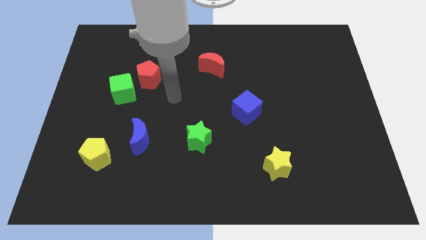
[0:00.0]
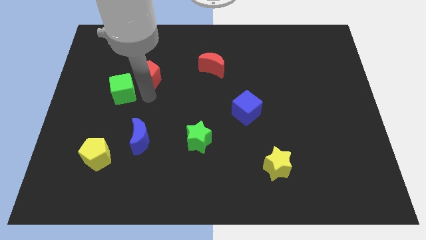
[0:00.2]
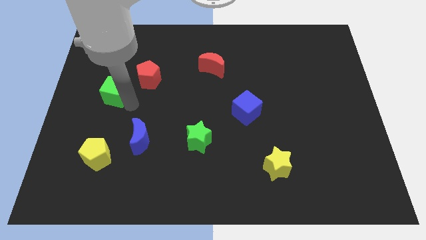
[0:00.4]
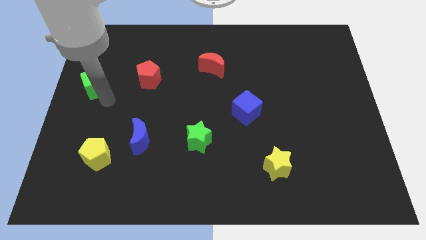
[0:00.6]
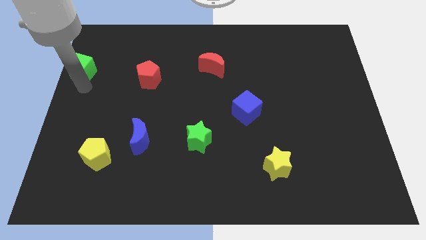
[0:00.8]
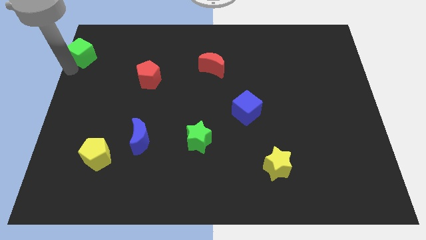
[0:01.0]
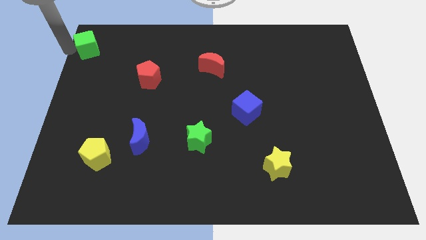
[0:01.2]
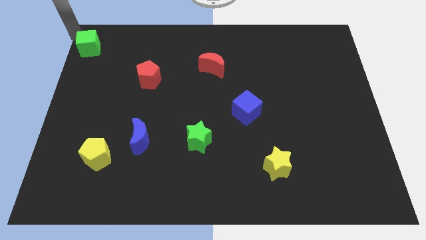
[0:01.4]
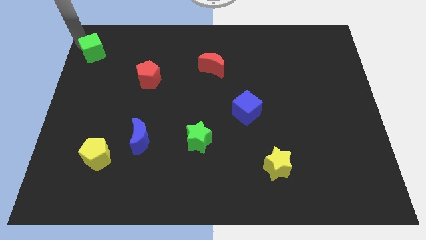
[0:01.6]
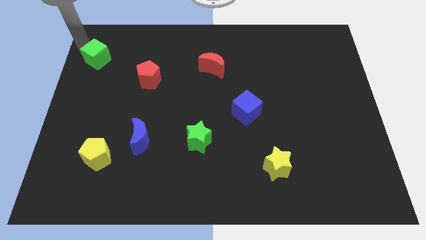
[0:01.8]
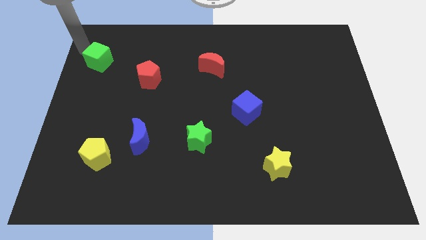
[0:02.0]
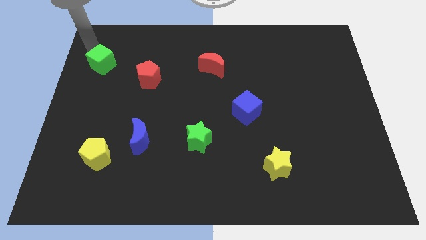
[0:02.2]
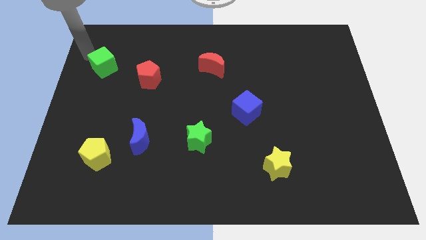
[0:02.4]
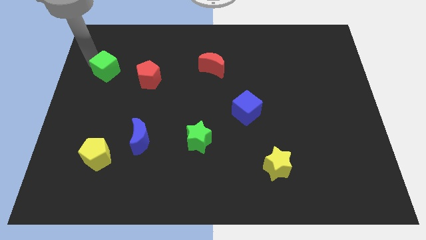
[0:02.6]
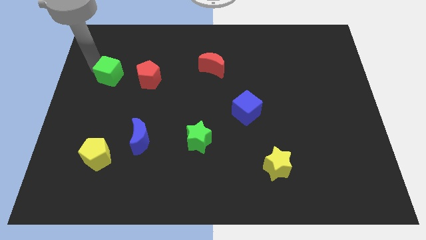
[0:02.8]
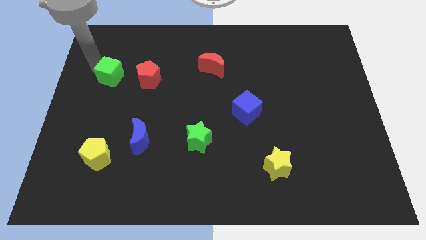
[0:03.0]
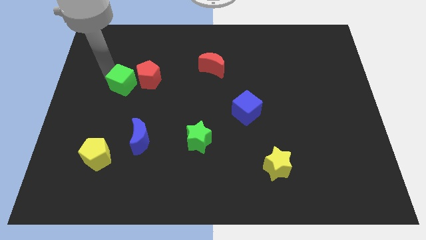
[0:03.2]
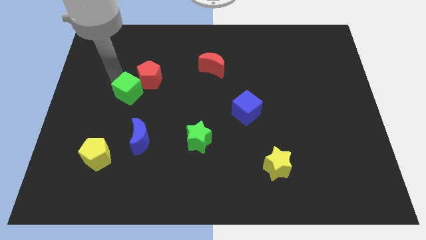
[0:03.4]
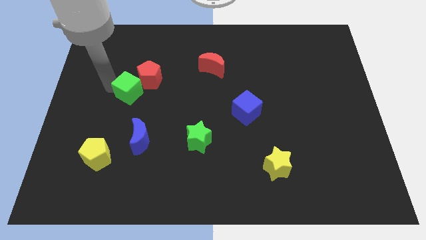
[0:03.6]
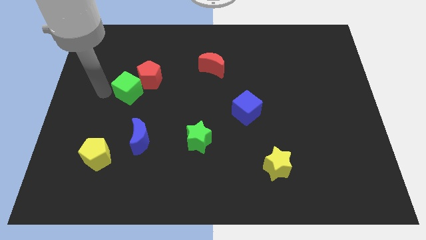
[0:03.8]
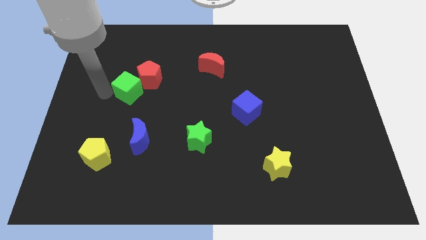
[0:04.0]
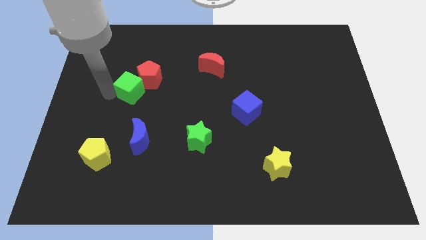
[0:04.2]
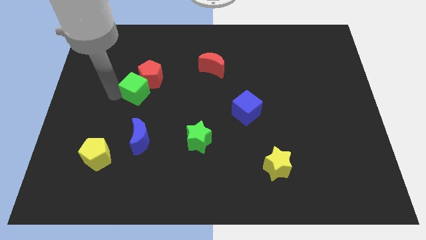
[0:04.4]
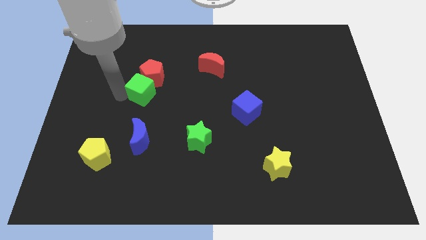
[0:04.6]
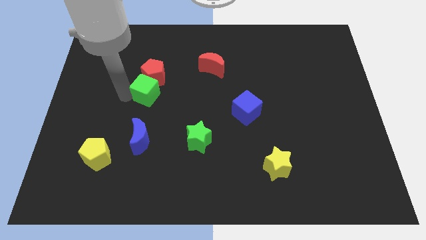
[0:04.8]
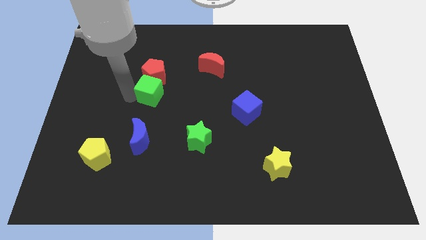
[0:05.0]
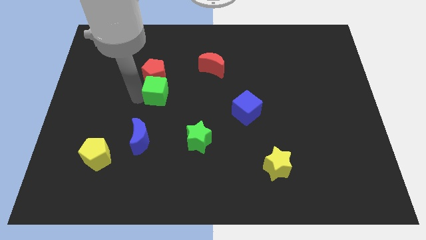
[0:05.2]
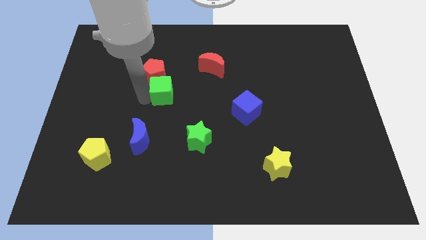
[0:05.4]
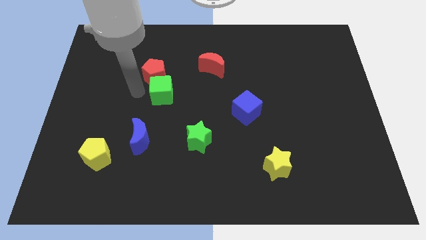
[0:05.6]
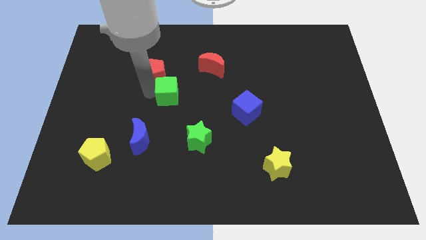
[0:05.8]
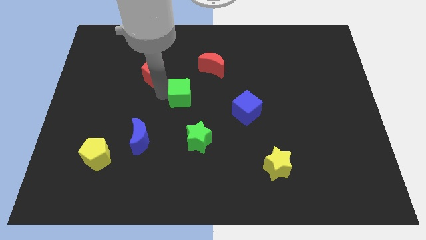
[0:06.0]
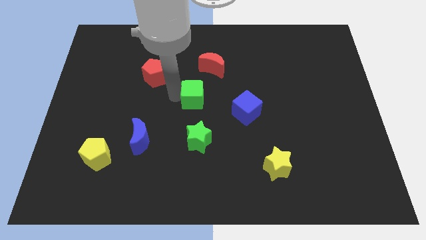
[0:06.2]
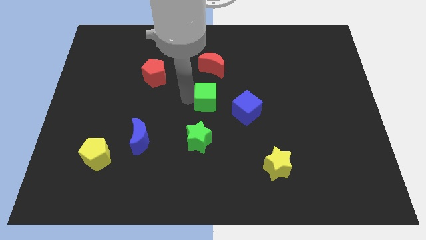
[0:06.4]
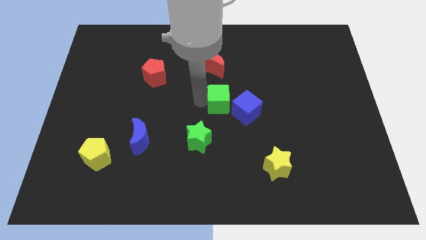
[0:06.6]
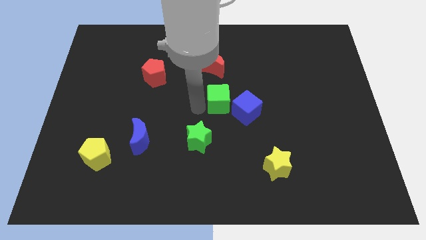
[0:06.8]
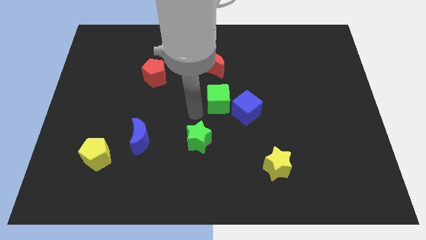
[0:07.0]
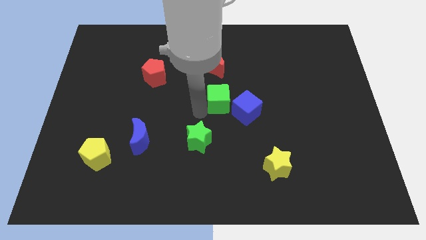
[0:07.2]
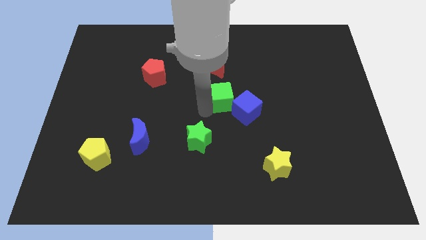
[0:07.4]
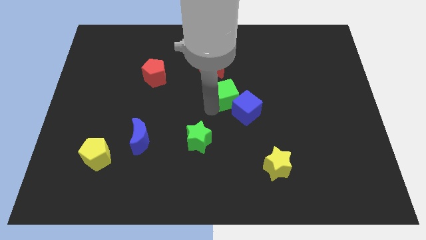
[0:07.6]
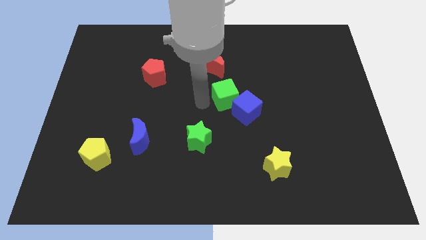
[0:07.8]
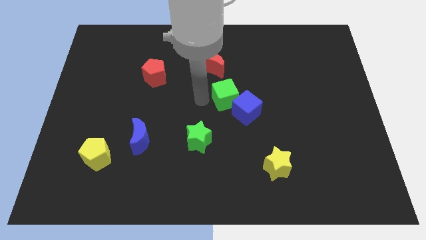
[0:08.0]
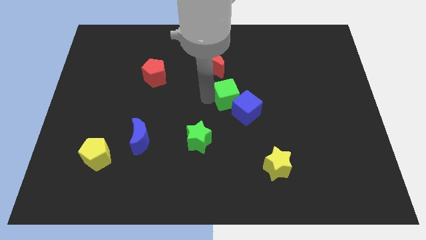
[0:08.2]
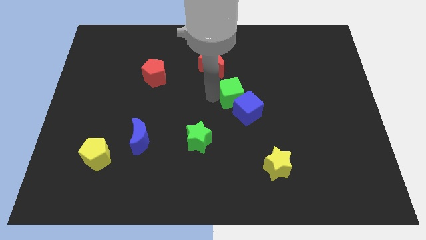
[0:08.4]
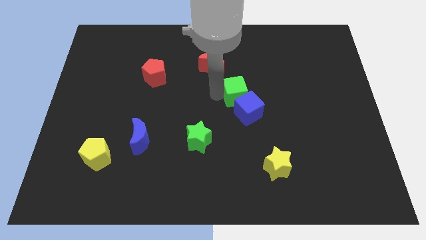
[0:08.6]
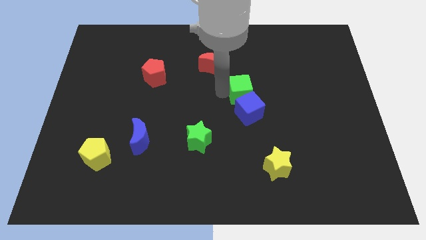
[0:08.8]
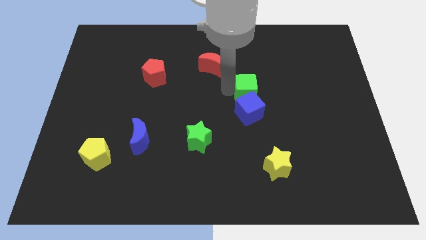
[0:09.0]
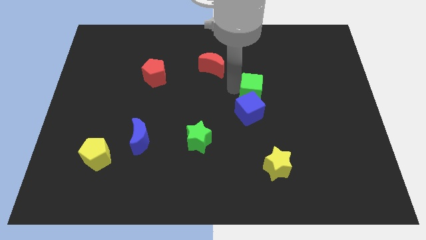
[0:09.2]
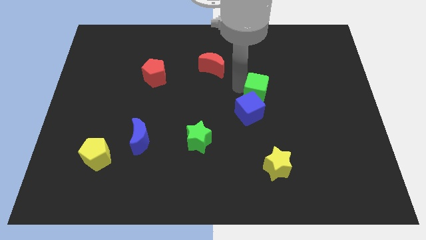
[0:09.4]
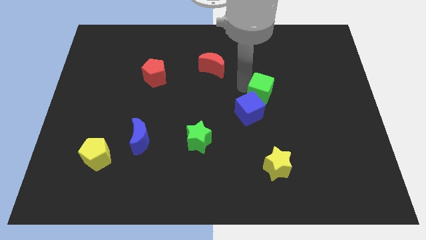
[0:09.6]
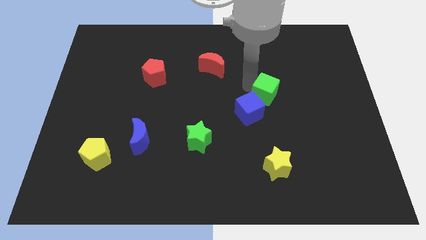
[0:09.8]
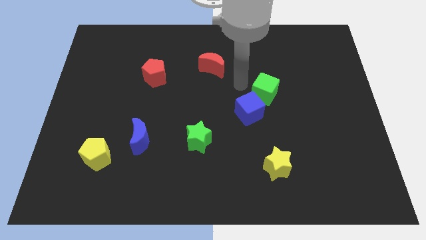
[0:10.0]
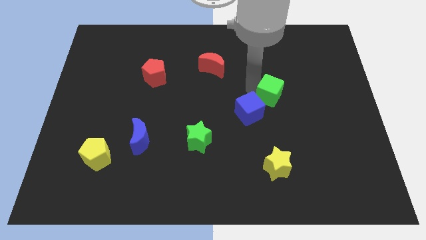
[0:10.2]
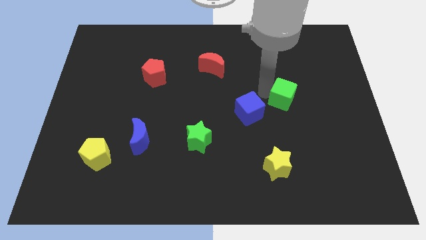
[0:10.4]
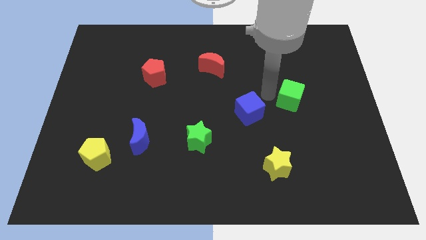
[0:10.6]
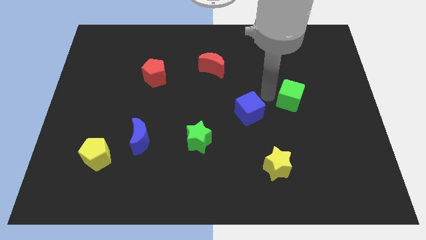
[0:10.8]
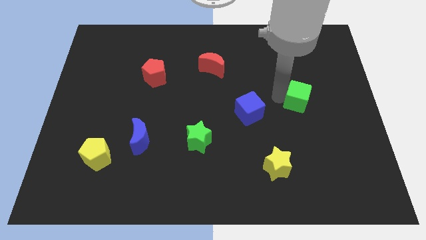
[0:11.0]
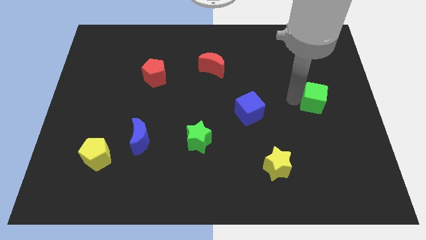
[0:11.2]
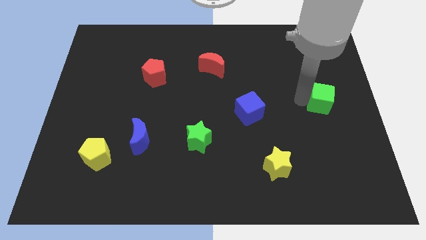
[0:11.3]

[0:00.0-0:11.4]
slide the green cube to the right side of the board
